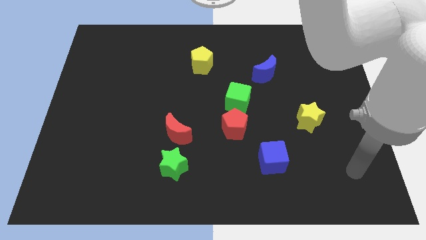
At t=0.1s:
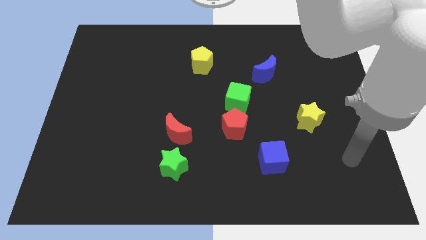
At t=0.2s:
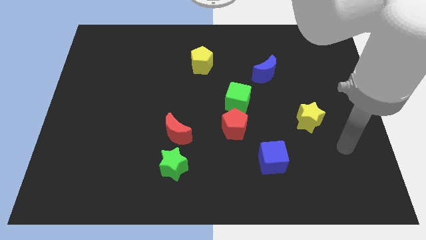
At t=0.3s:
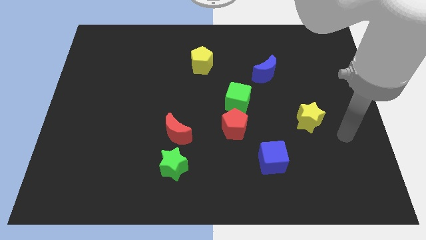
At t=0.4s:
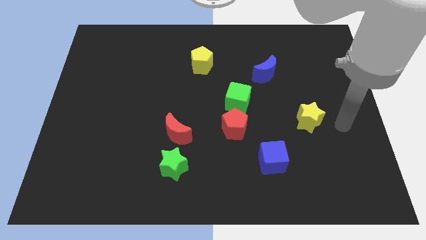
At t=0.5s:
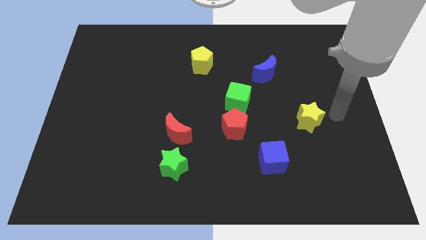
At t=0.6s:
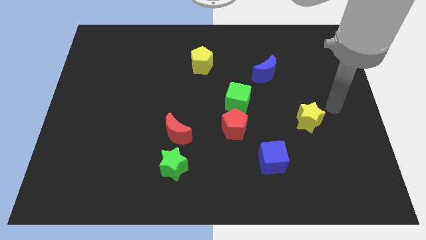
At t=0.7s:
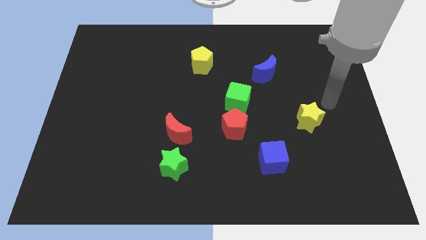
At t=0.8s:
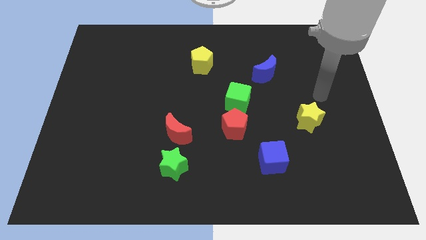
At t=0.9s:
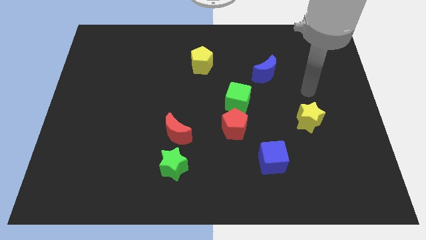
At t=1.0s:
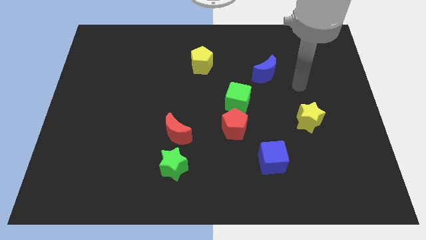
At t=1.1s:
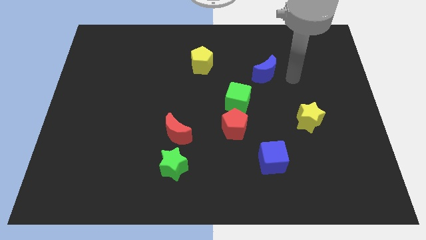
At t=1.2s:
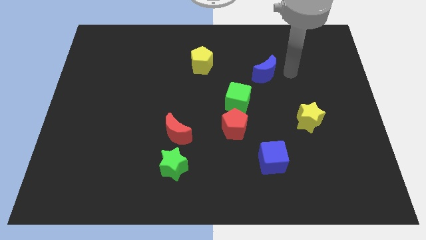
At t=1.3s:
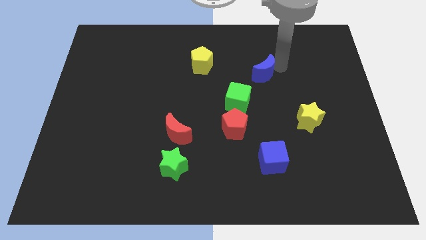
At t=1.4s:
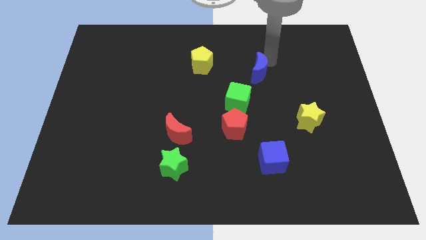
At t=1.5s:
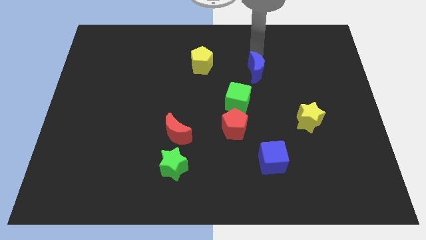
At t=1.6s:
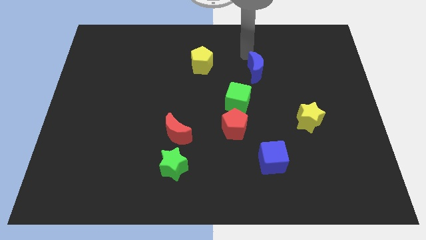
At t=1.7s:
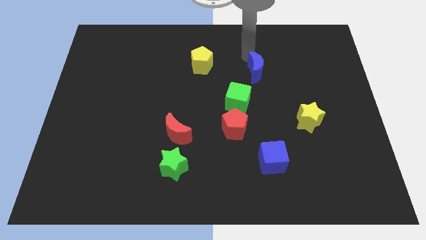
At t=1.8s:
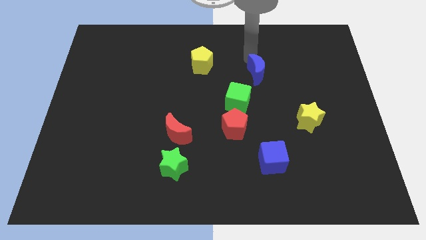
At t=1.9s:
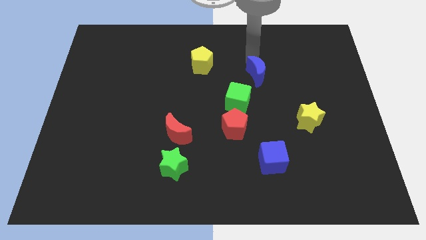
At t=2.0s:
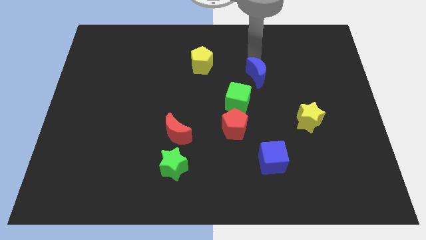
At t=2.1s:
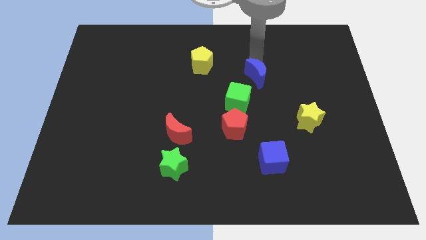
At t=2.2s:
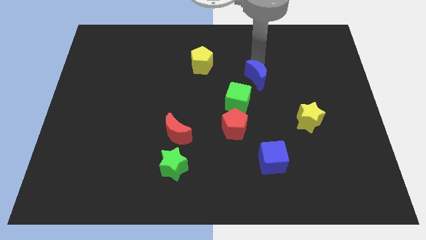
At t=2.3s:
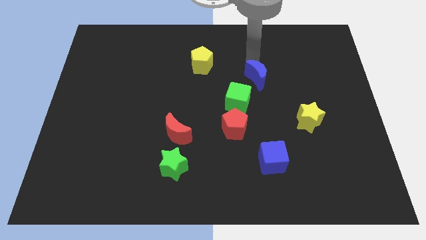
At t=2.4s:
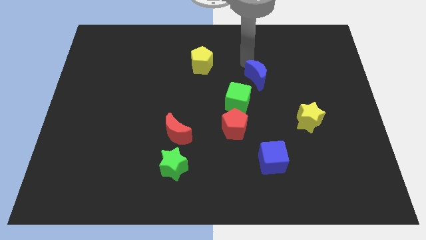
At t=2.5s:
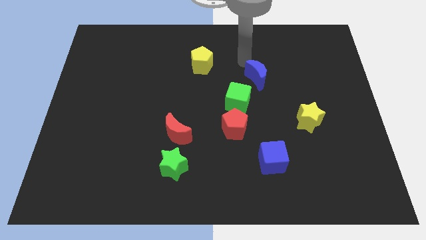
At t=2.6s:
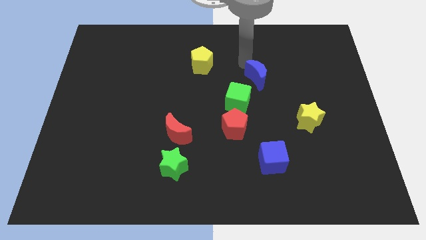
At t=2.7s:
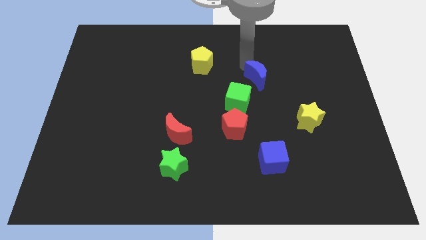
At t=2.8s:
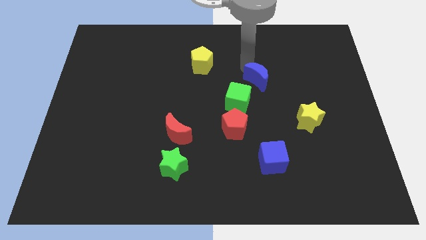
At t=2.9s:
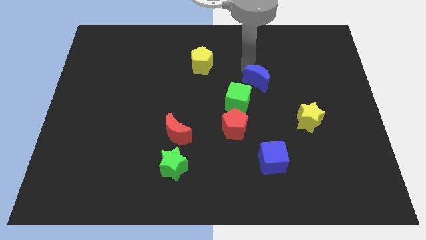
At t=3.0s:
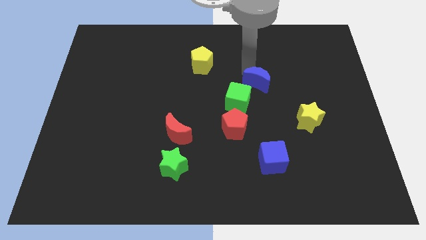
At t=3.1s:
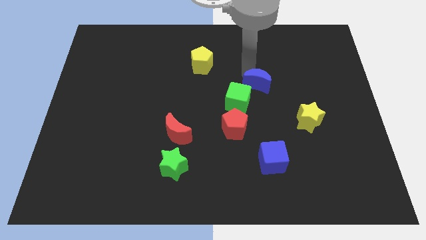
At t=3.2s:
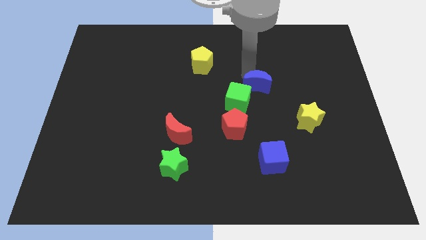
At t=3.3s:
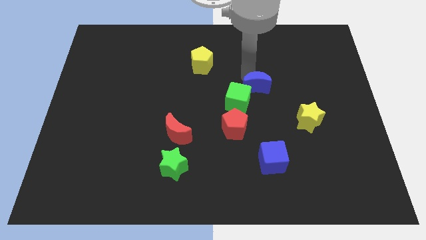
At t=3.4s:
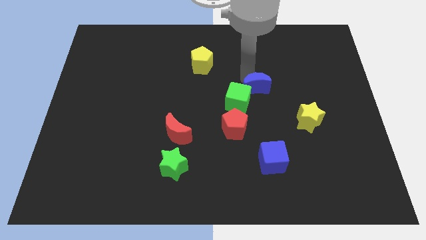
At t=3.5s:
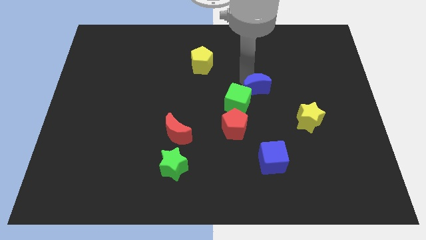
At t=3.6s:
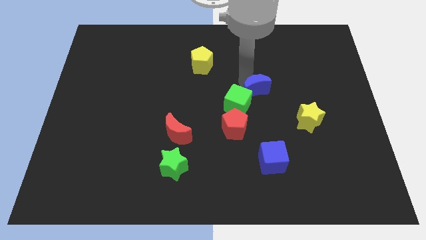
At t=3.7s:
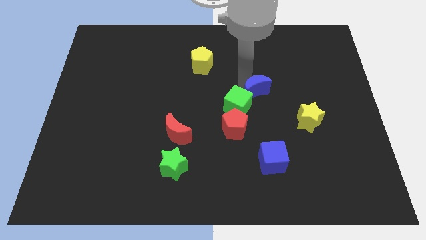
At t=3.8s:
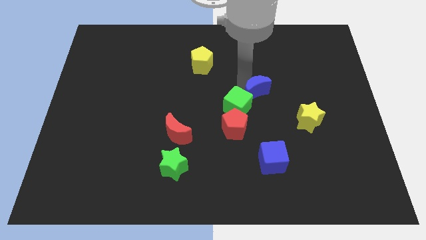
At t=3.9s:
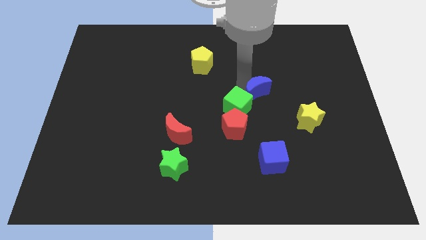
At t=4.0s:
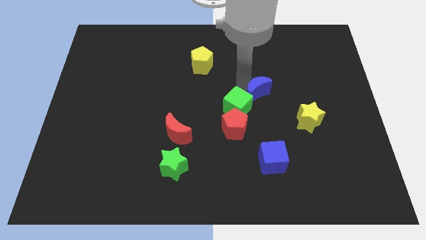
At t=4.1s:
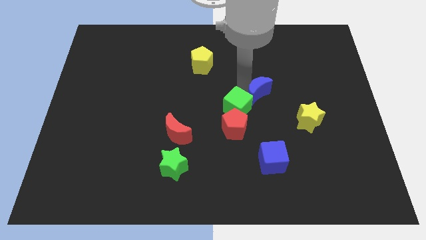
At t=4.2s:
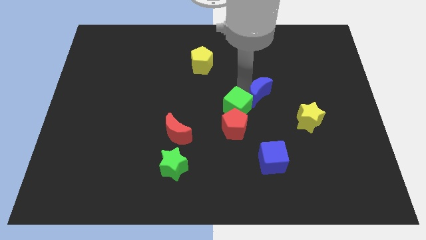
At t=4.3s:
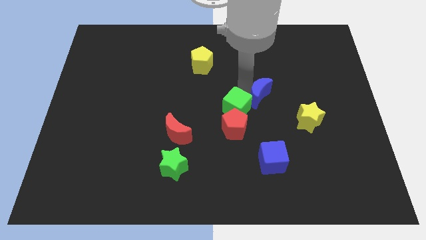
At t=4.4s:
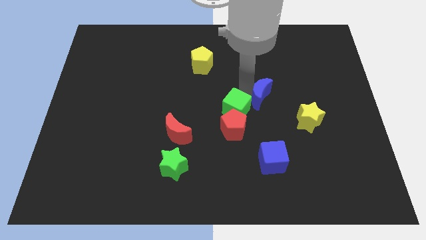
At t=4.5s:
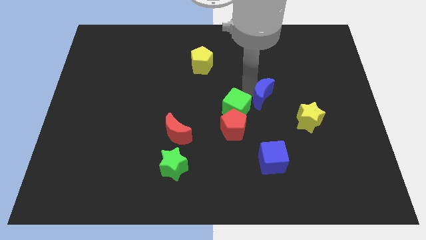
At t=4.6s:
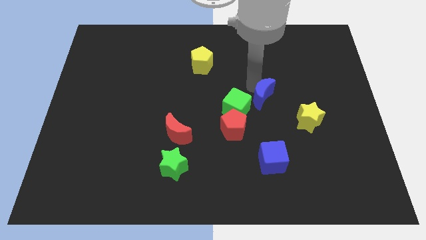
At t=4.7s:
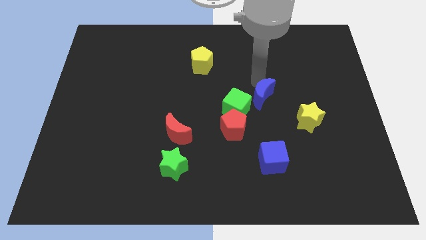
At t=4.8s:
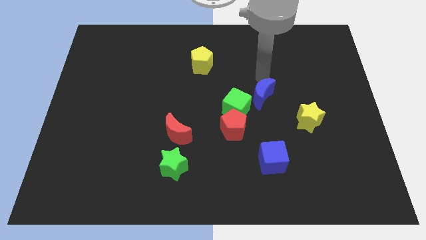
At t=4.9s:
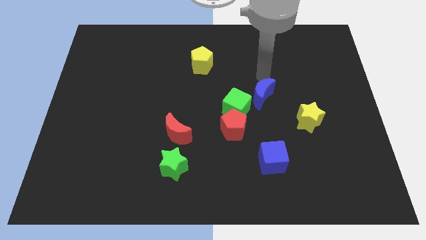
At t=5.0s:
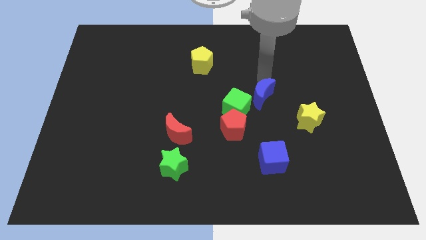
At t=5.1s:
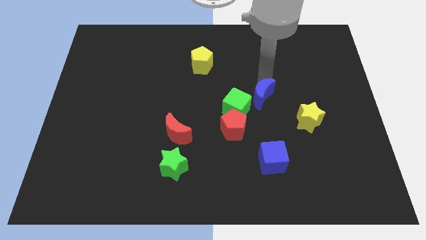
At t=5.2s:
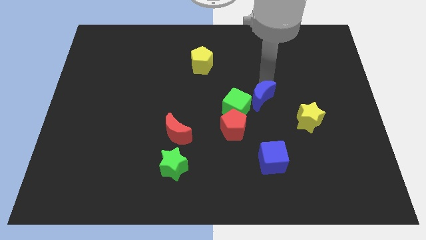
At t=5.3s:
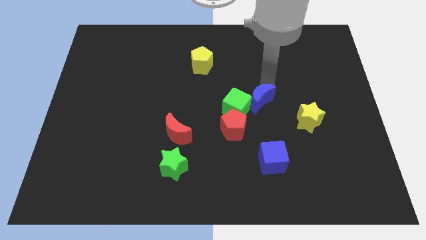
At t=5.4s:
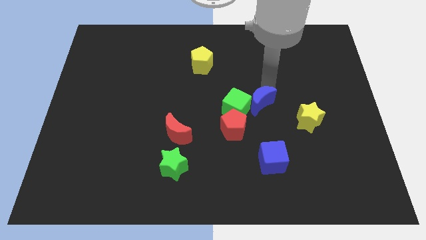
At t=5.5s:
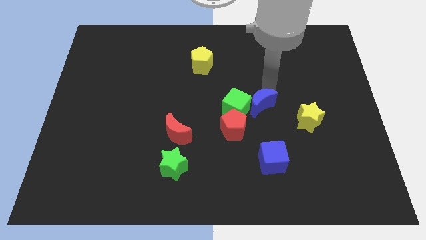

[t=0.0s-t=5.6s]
put the blue moon diagonally down and to the right of the green cube

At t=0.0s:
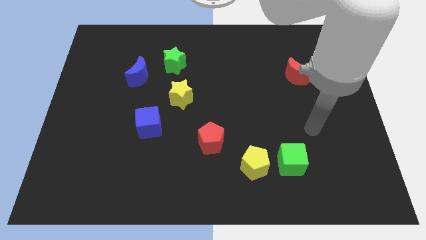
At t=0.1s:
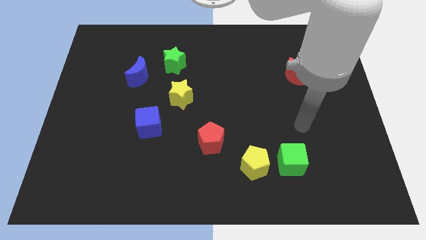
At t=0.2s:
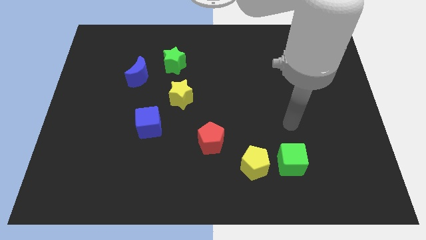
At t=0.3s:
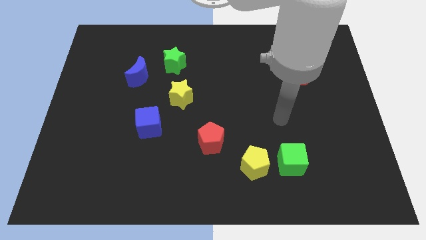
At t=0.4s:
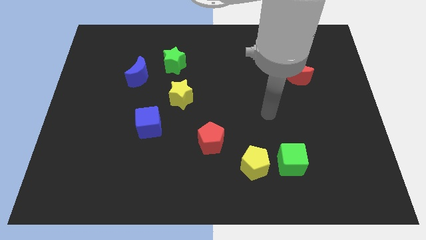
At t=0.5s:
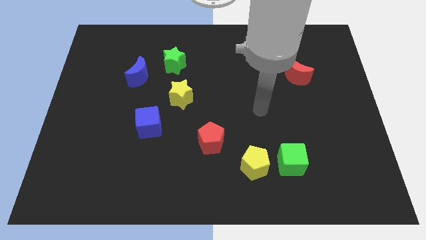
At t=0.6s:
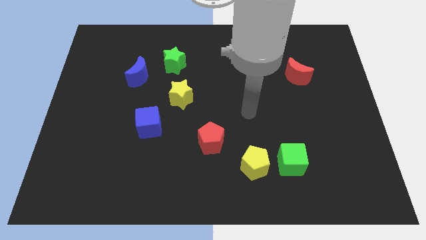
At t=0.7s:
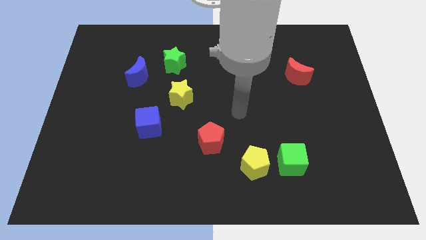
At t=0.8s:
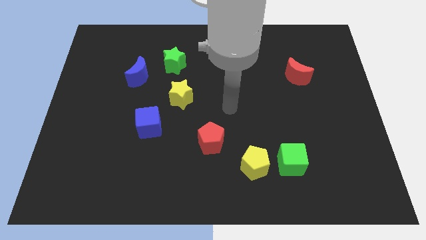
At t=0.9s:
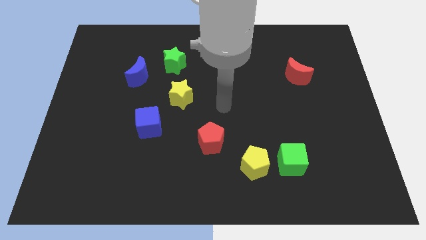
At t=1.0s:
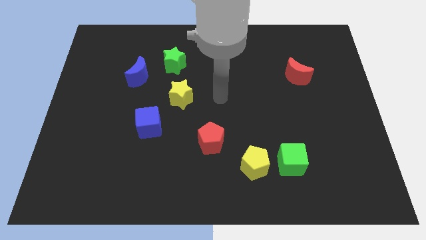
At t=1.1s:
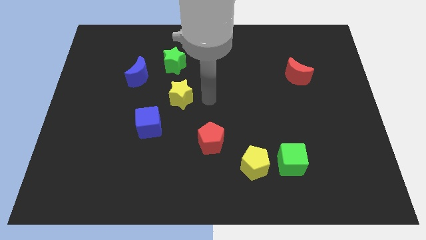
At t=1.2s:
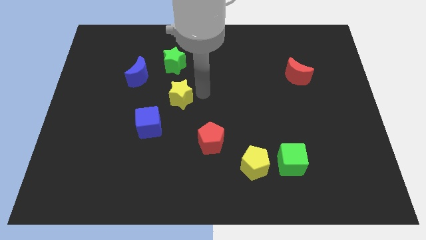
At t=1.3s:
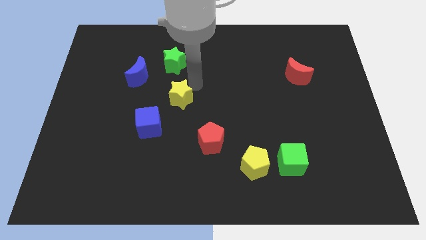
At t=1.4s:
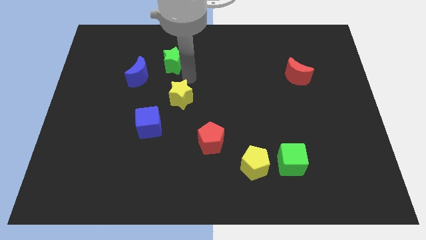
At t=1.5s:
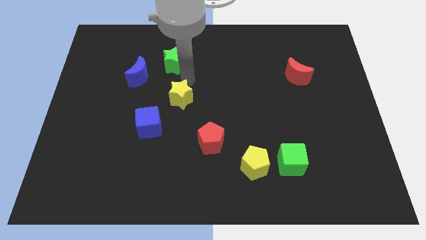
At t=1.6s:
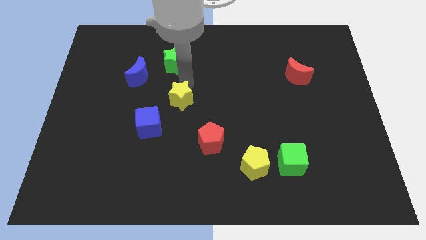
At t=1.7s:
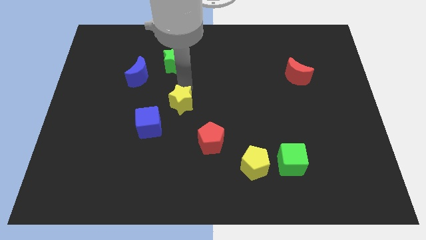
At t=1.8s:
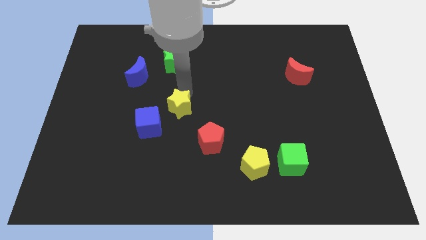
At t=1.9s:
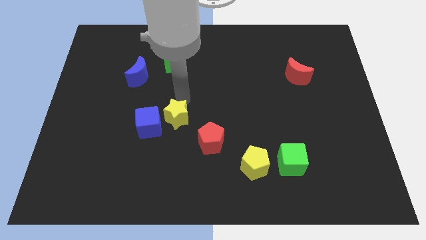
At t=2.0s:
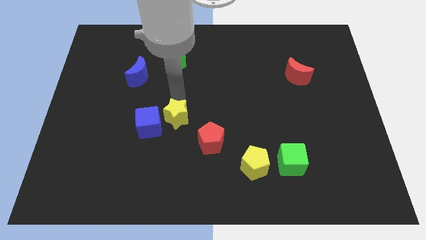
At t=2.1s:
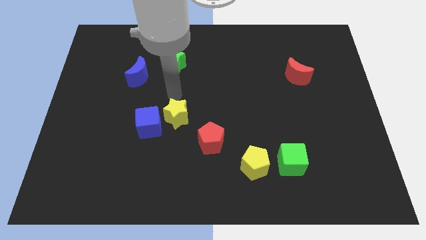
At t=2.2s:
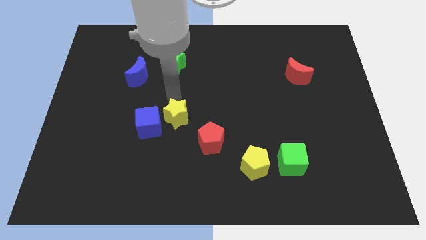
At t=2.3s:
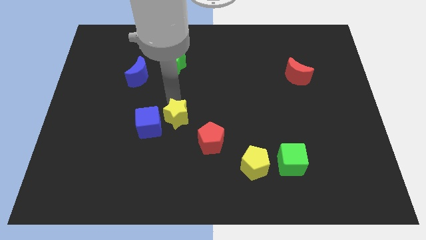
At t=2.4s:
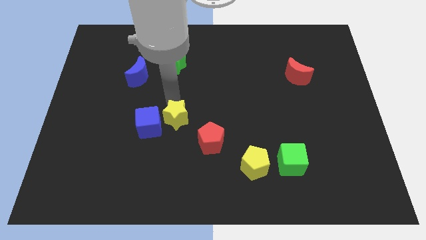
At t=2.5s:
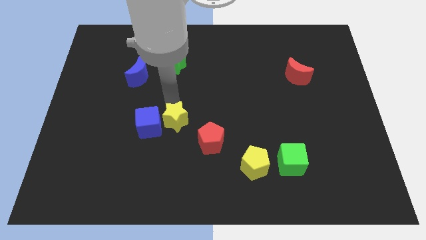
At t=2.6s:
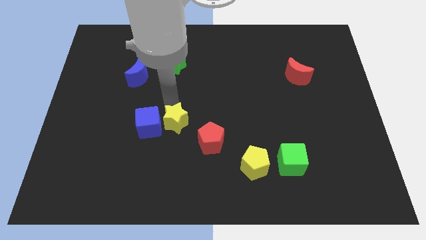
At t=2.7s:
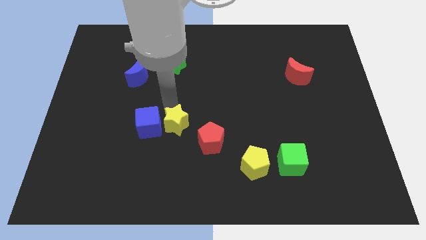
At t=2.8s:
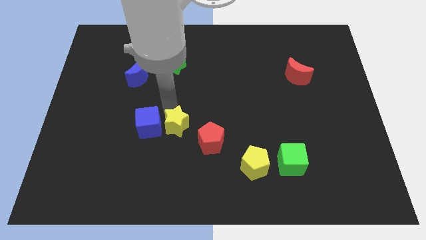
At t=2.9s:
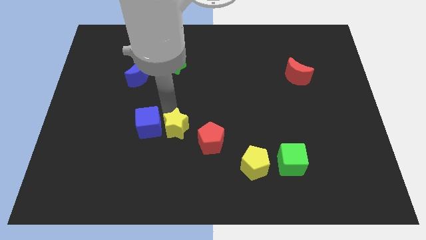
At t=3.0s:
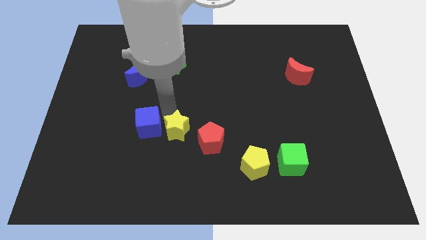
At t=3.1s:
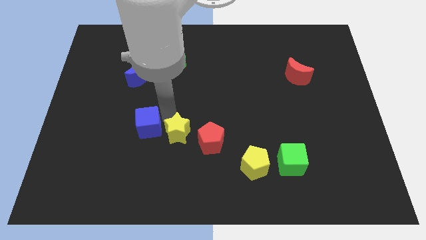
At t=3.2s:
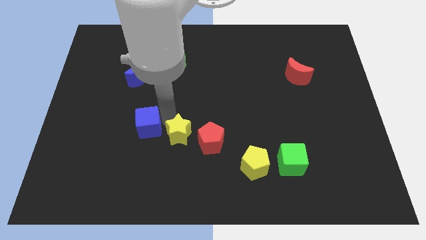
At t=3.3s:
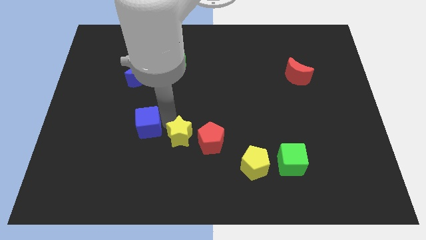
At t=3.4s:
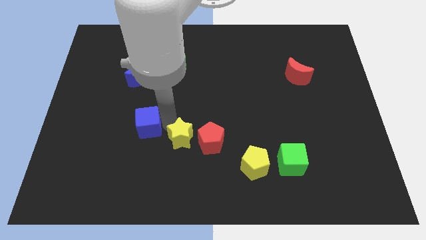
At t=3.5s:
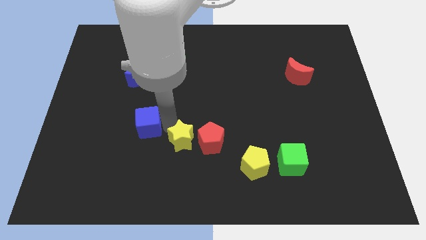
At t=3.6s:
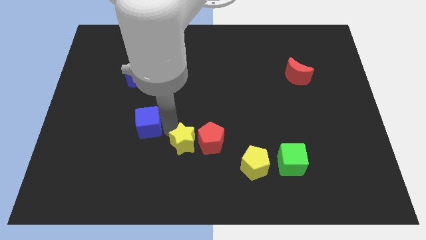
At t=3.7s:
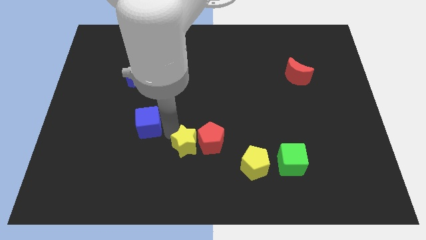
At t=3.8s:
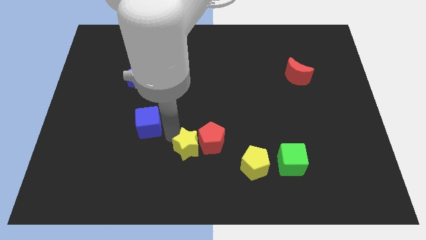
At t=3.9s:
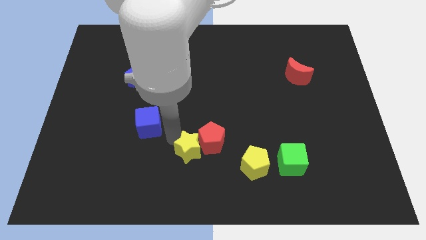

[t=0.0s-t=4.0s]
put the yellow star just left of the yellow pentagon
